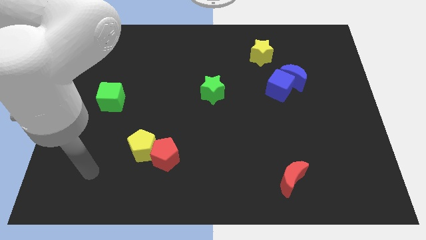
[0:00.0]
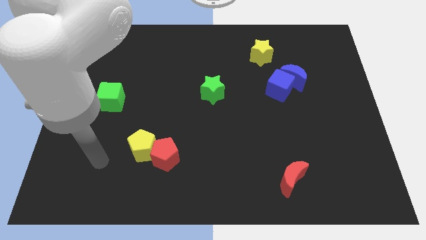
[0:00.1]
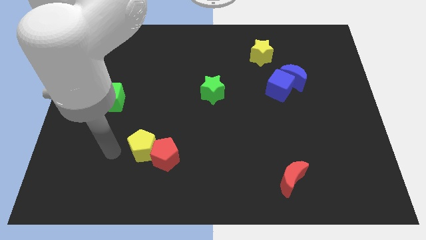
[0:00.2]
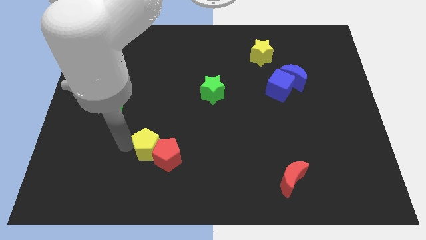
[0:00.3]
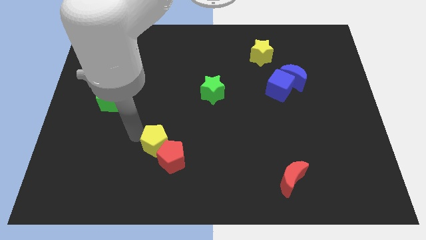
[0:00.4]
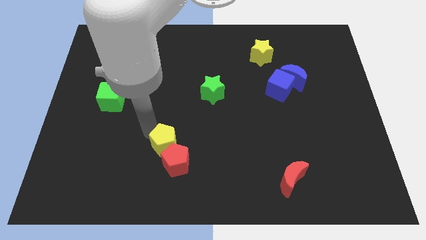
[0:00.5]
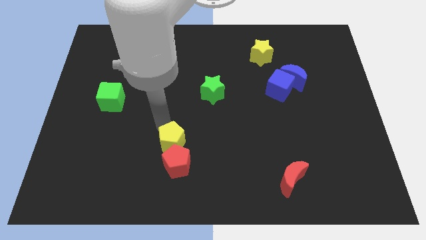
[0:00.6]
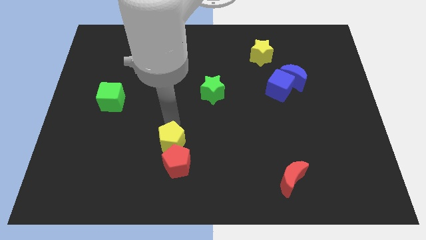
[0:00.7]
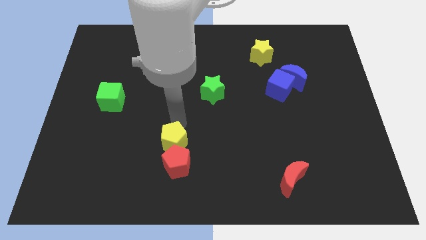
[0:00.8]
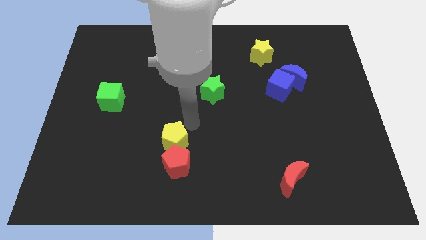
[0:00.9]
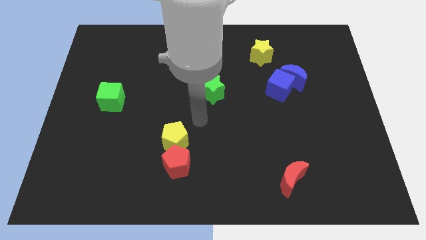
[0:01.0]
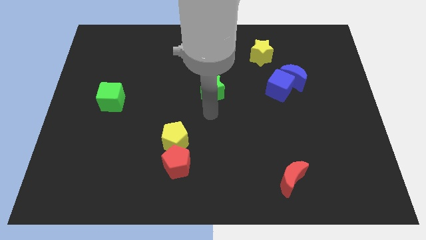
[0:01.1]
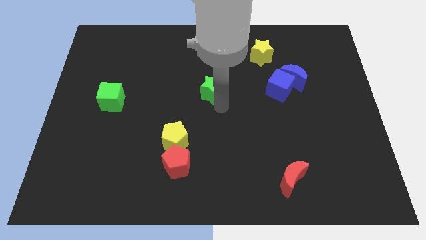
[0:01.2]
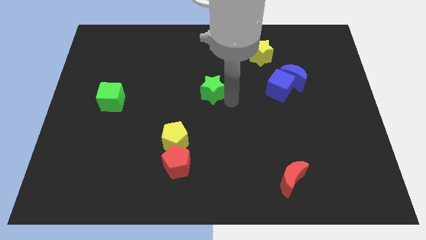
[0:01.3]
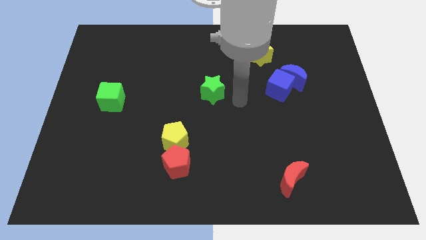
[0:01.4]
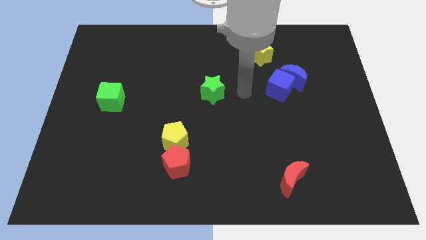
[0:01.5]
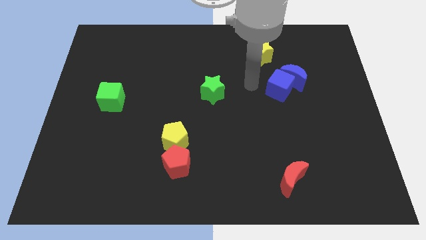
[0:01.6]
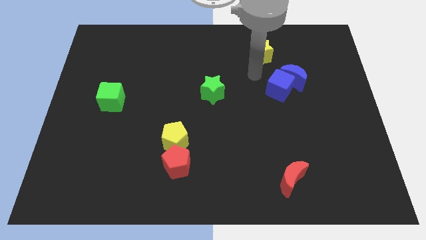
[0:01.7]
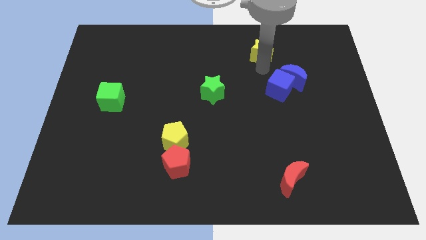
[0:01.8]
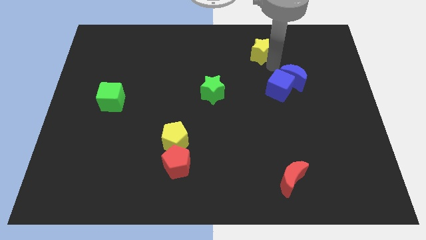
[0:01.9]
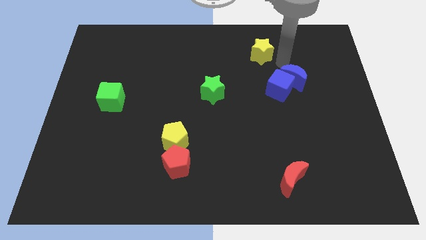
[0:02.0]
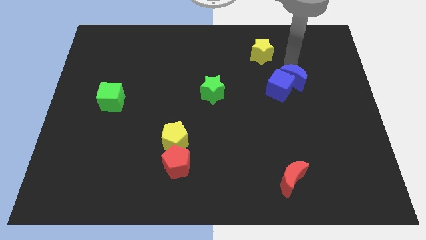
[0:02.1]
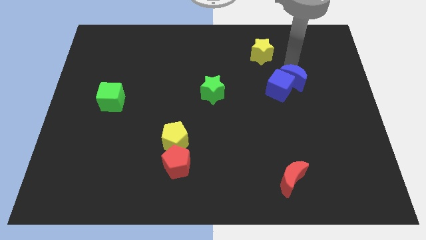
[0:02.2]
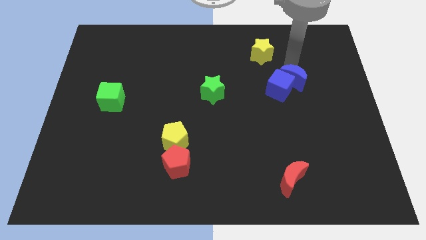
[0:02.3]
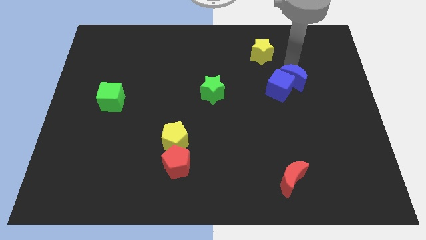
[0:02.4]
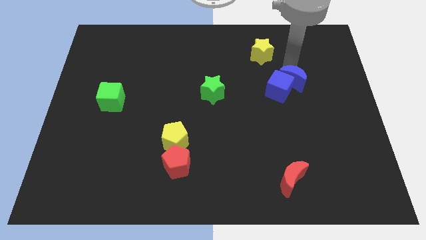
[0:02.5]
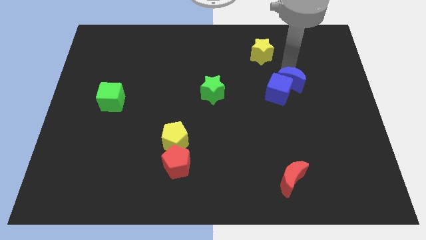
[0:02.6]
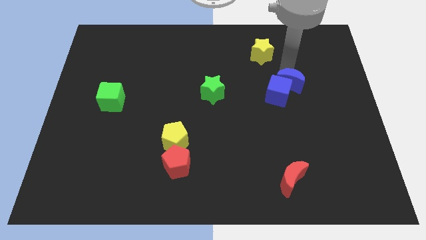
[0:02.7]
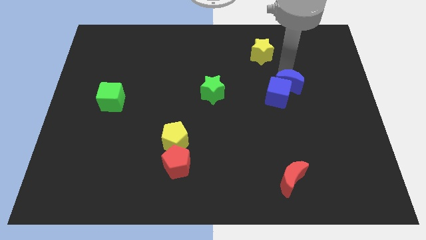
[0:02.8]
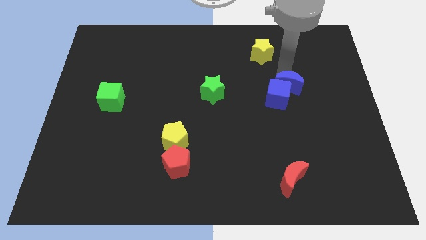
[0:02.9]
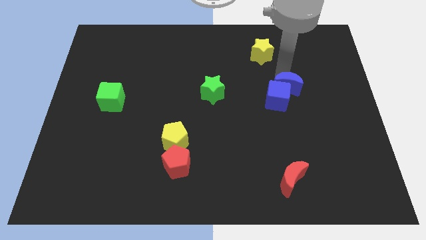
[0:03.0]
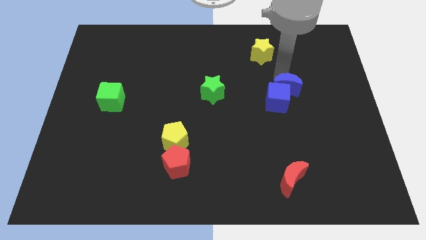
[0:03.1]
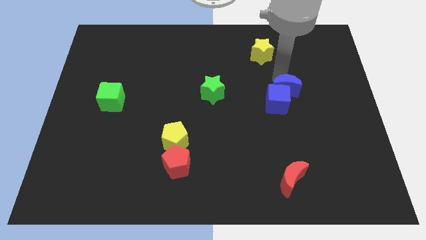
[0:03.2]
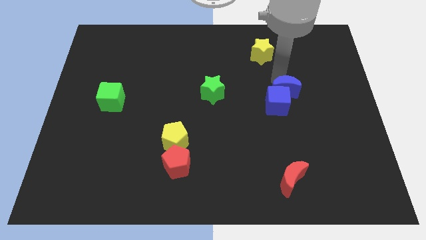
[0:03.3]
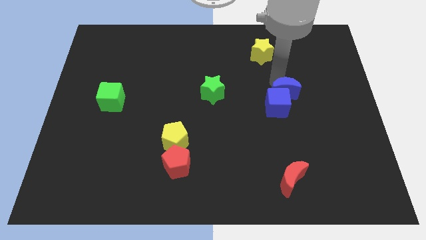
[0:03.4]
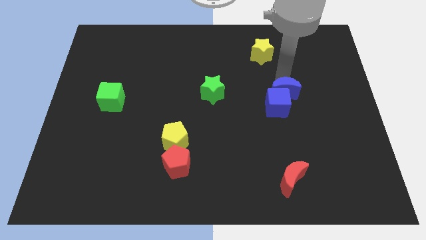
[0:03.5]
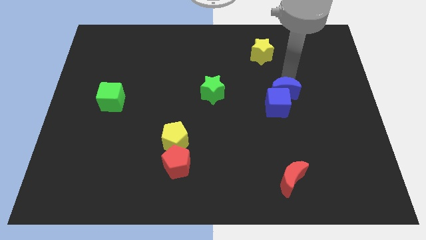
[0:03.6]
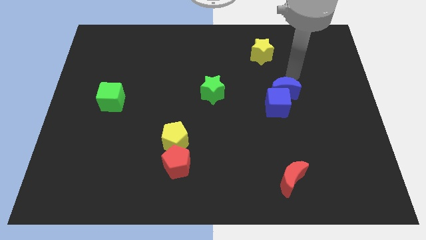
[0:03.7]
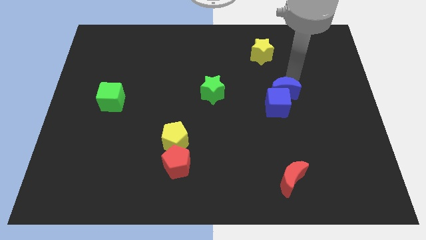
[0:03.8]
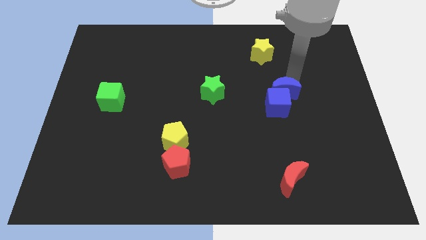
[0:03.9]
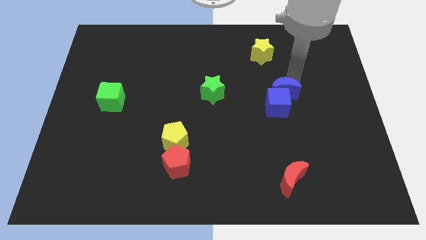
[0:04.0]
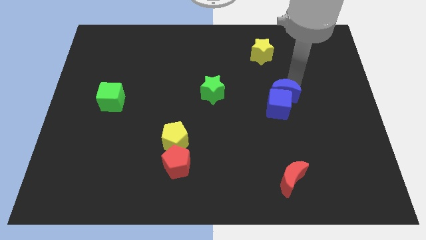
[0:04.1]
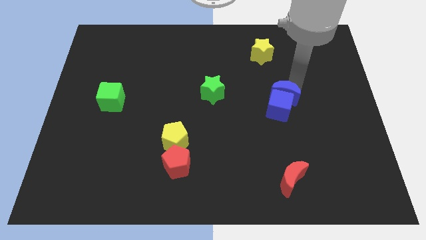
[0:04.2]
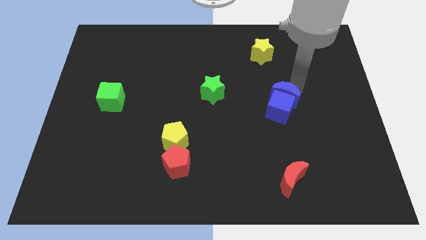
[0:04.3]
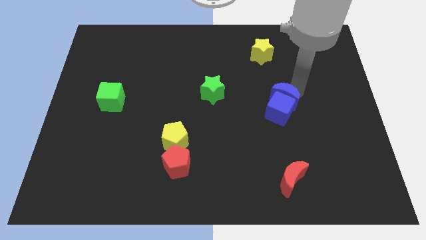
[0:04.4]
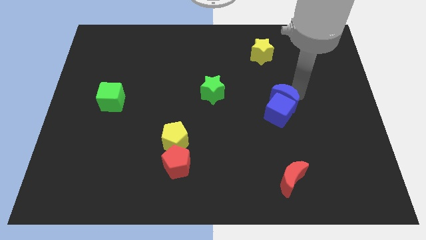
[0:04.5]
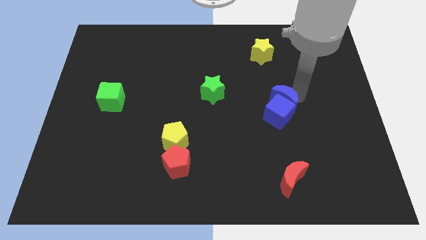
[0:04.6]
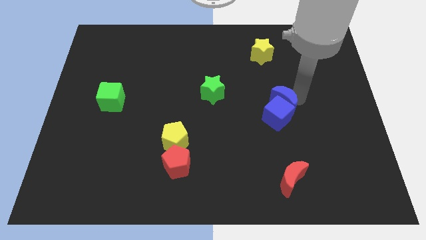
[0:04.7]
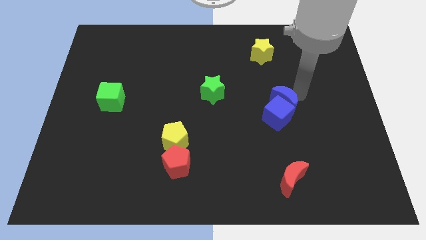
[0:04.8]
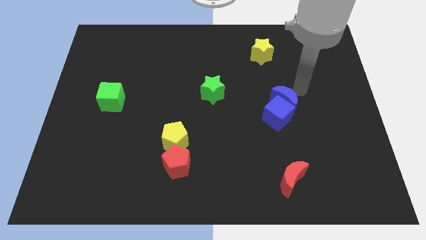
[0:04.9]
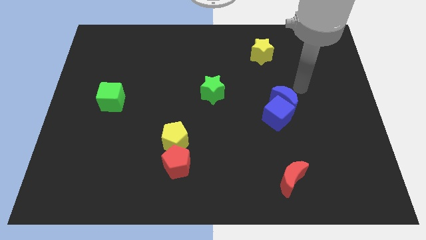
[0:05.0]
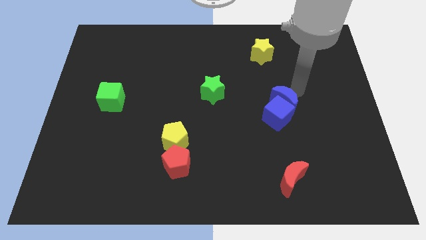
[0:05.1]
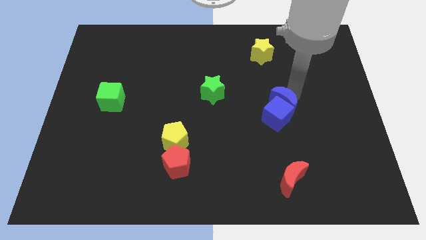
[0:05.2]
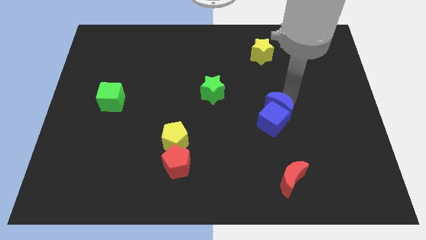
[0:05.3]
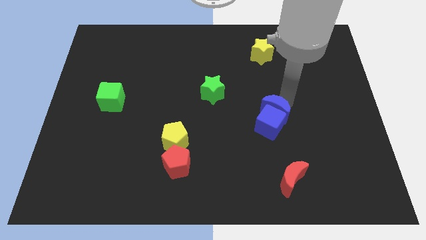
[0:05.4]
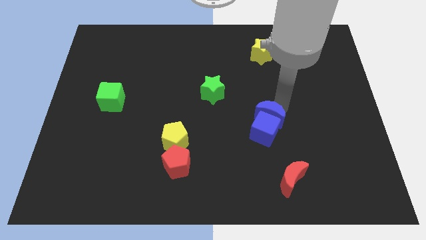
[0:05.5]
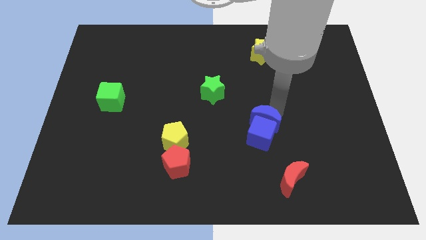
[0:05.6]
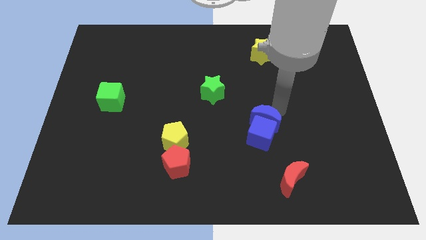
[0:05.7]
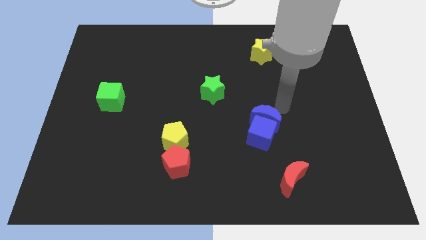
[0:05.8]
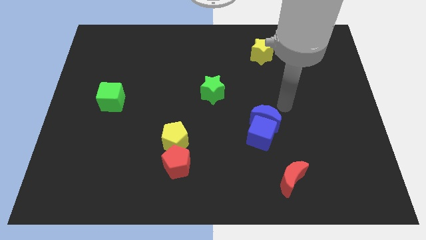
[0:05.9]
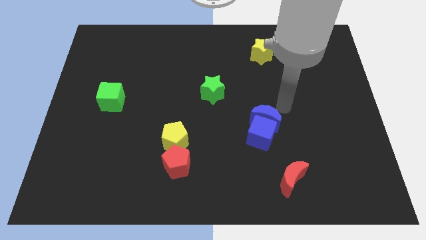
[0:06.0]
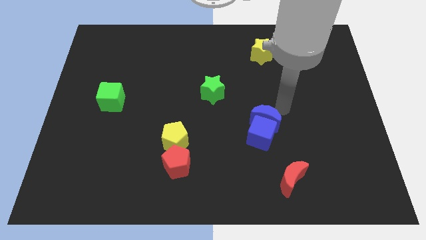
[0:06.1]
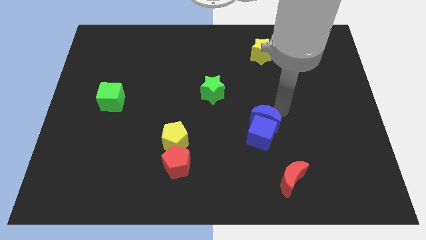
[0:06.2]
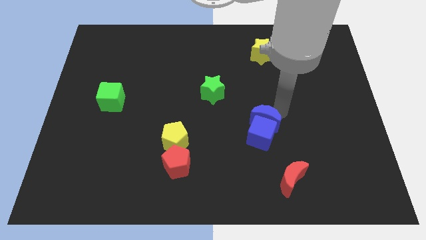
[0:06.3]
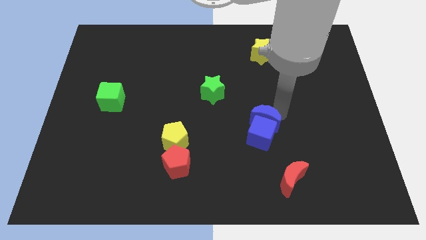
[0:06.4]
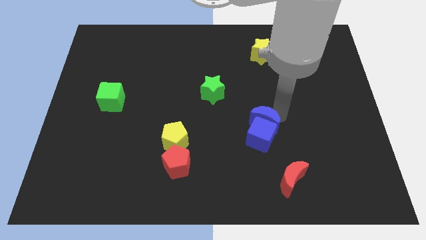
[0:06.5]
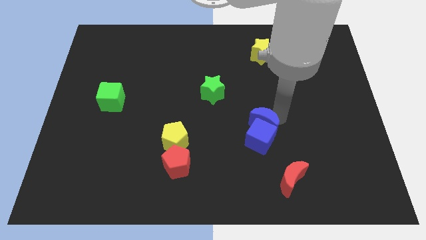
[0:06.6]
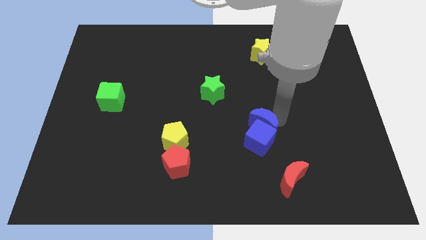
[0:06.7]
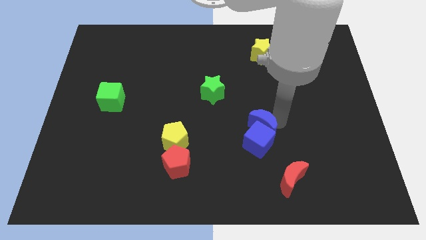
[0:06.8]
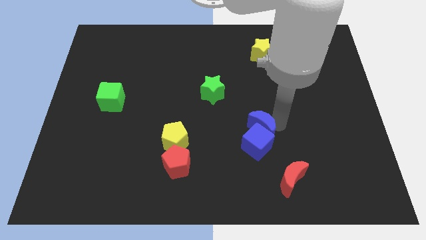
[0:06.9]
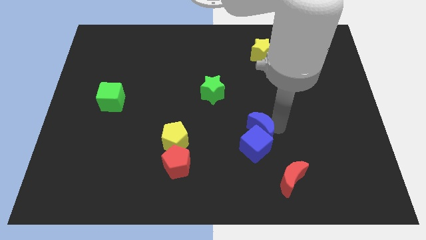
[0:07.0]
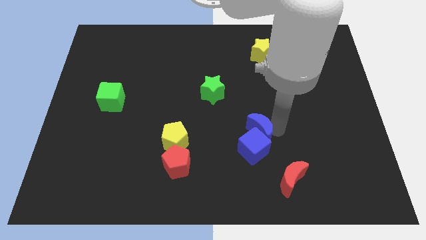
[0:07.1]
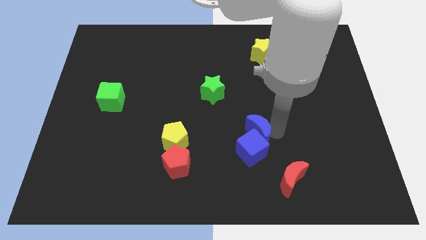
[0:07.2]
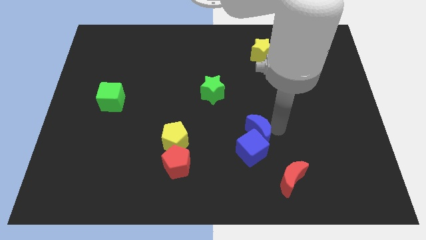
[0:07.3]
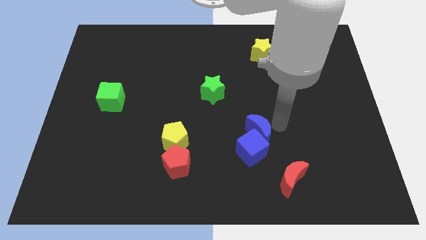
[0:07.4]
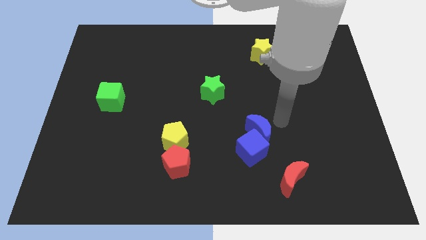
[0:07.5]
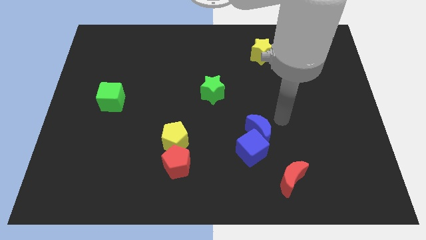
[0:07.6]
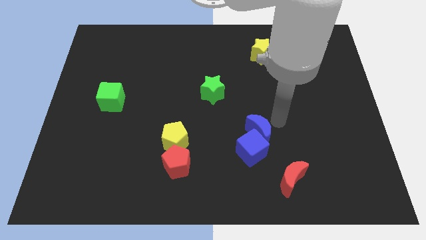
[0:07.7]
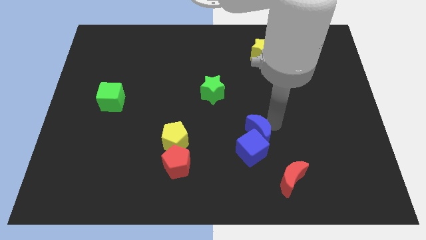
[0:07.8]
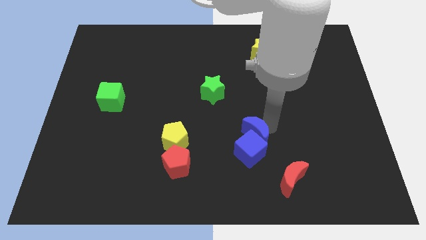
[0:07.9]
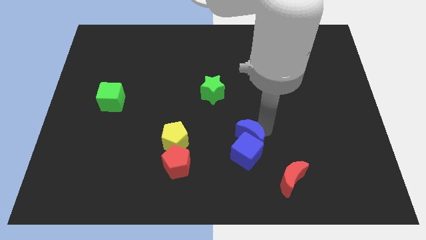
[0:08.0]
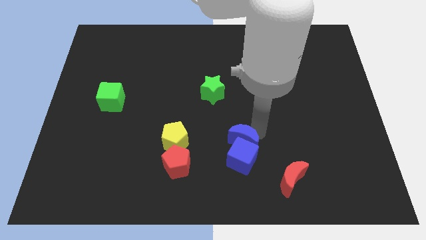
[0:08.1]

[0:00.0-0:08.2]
push the blue moon down and then to the left
